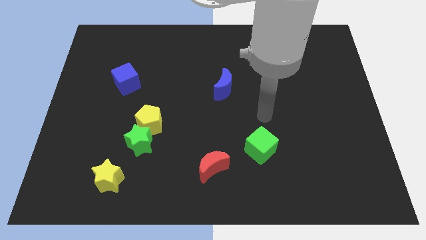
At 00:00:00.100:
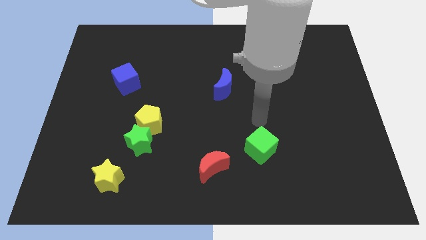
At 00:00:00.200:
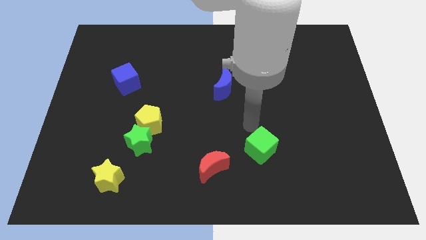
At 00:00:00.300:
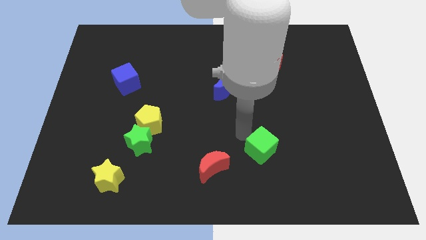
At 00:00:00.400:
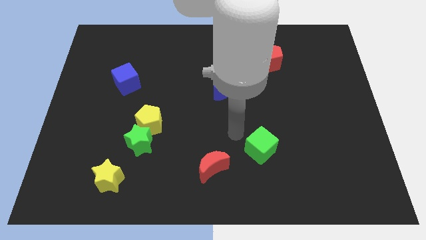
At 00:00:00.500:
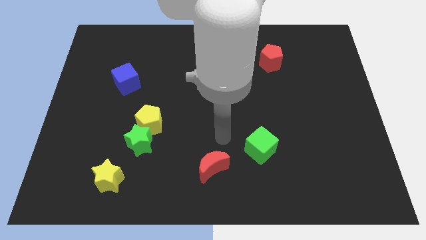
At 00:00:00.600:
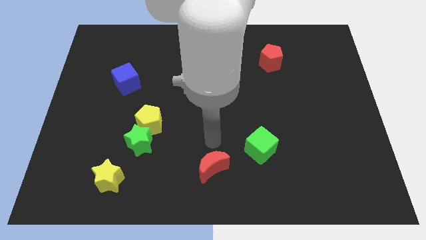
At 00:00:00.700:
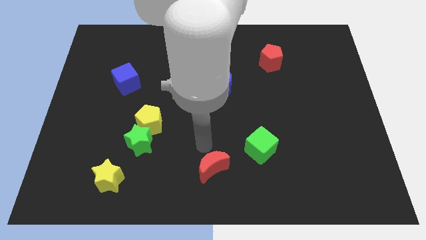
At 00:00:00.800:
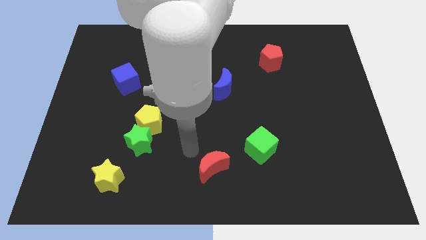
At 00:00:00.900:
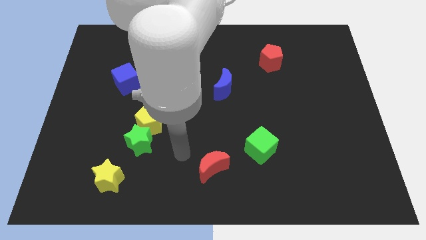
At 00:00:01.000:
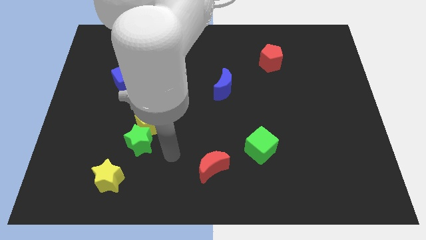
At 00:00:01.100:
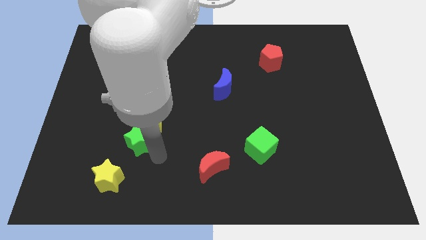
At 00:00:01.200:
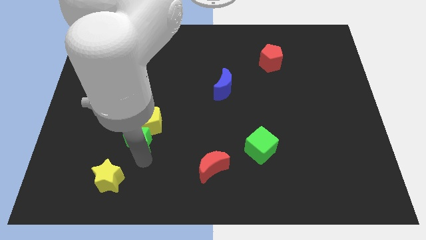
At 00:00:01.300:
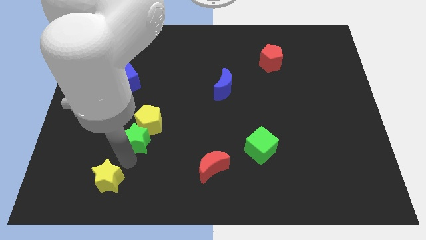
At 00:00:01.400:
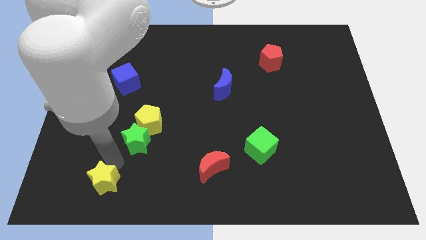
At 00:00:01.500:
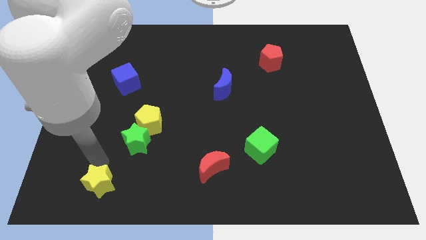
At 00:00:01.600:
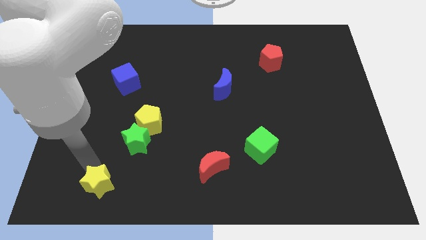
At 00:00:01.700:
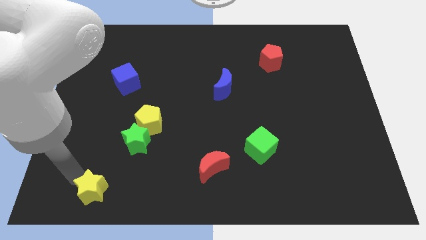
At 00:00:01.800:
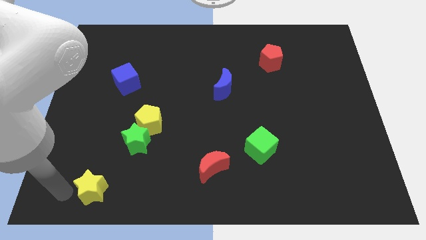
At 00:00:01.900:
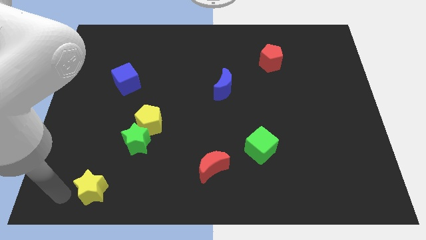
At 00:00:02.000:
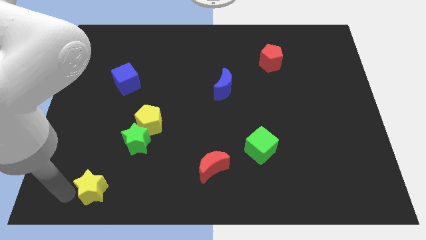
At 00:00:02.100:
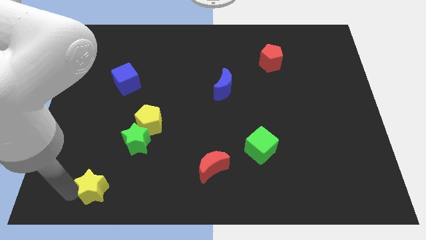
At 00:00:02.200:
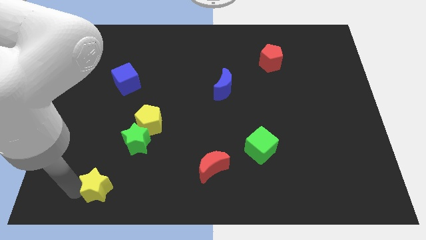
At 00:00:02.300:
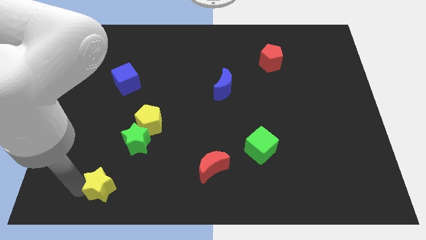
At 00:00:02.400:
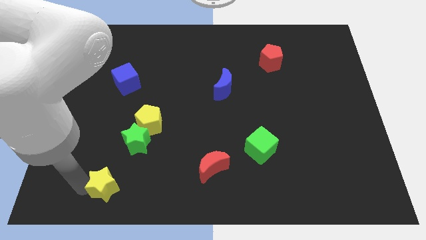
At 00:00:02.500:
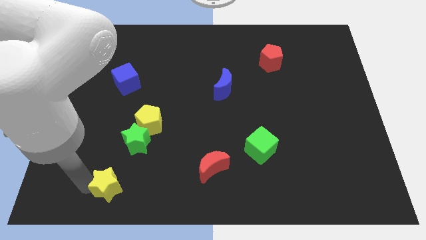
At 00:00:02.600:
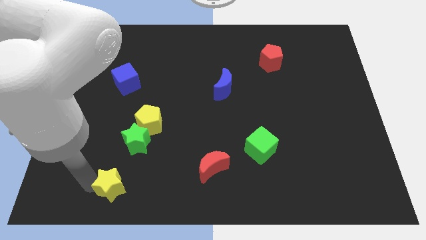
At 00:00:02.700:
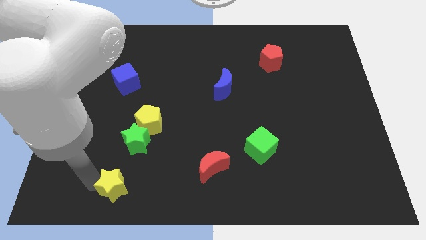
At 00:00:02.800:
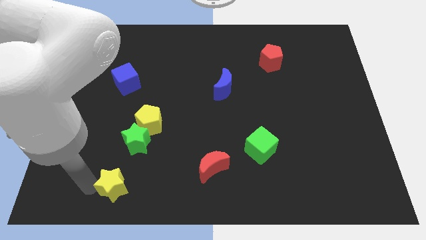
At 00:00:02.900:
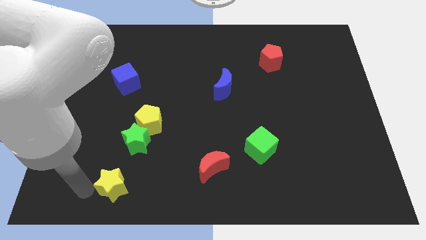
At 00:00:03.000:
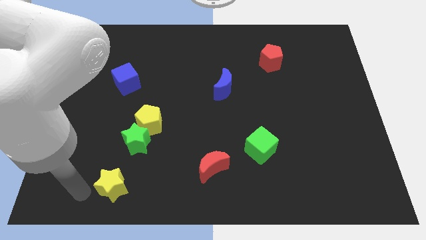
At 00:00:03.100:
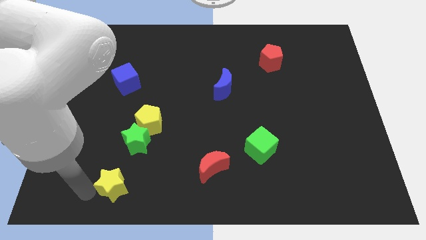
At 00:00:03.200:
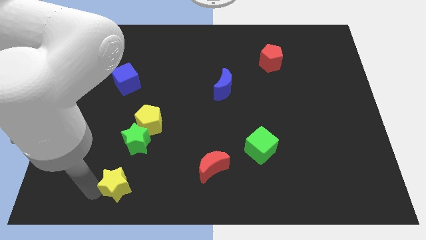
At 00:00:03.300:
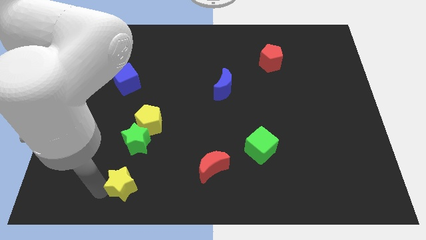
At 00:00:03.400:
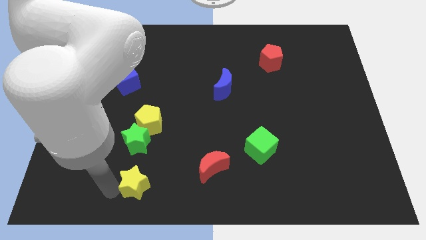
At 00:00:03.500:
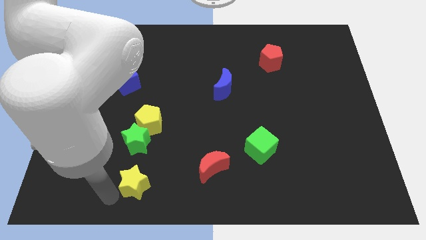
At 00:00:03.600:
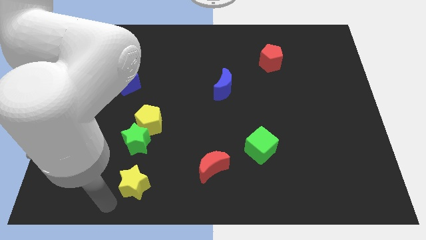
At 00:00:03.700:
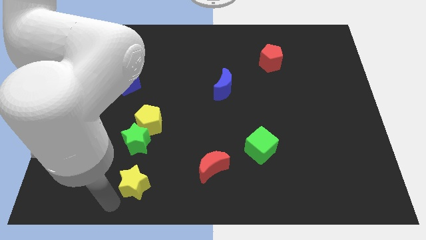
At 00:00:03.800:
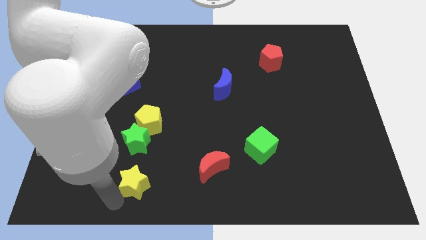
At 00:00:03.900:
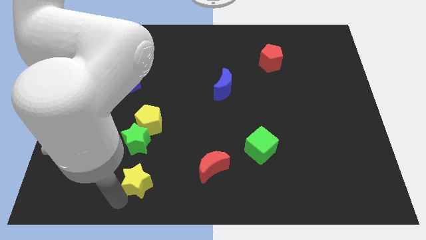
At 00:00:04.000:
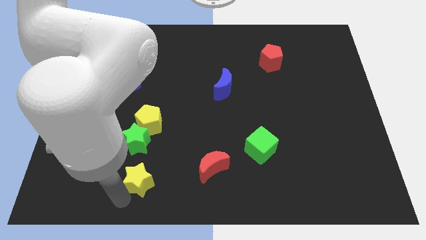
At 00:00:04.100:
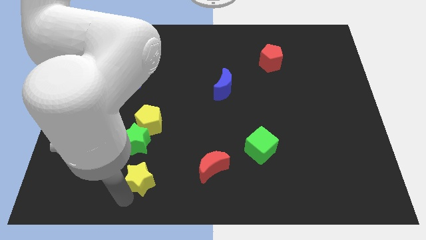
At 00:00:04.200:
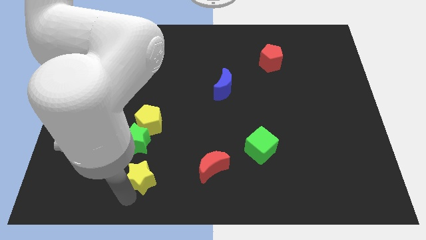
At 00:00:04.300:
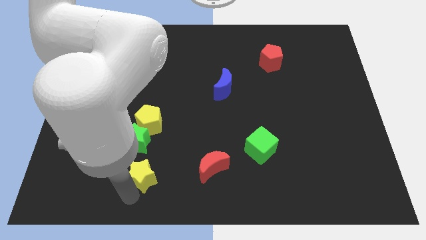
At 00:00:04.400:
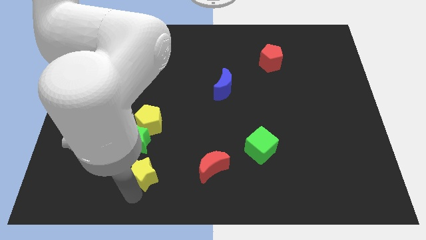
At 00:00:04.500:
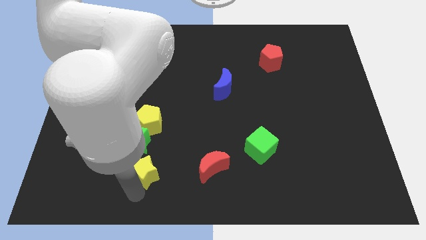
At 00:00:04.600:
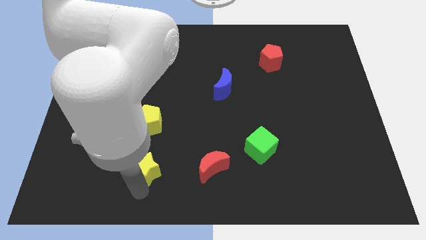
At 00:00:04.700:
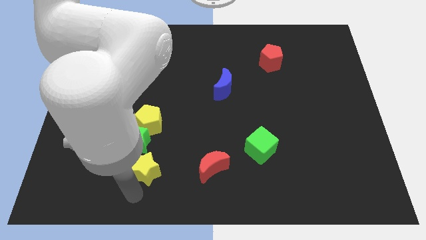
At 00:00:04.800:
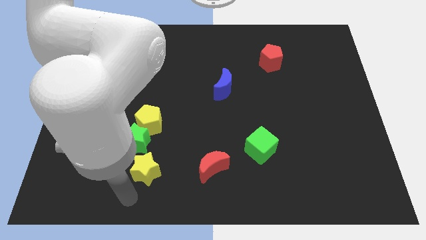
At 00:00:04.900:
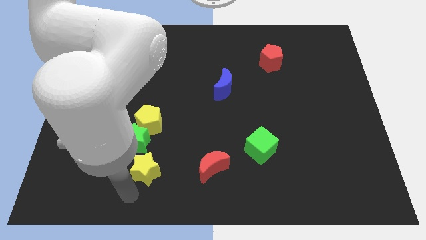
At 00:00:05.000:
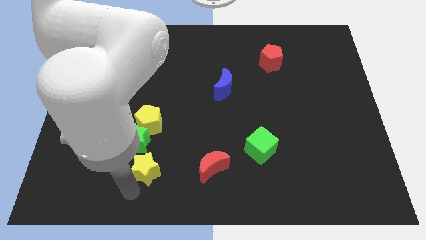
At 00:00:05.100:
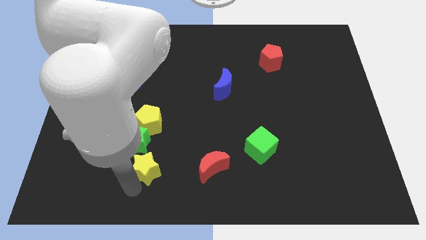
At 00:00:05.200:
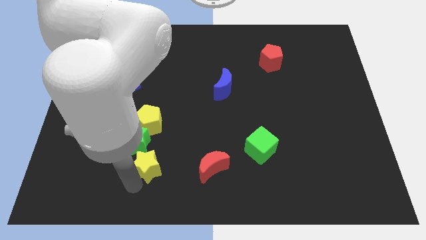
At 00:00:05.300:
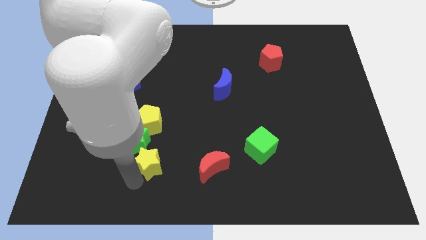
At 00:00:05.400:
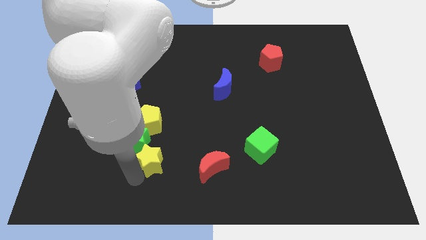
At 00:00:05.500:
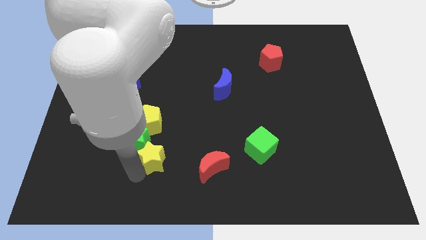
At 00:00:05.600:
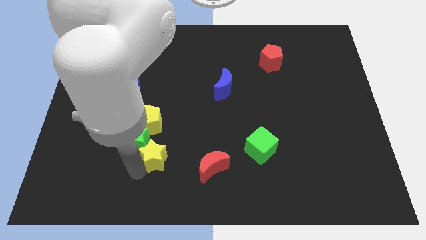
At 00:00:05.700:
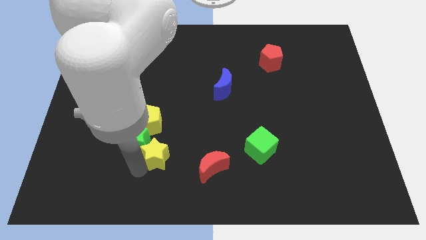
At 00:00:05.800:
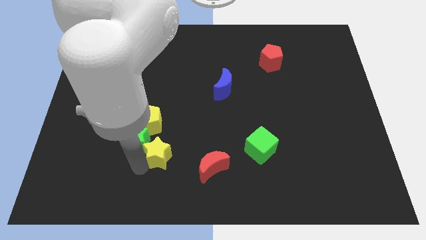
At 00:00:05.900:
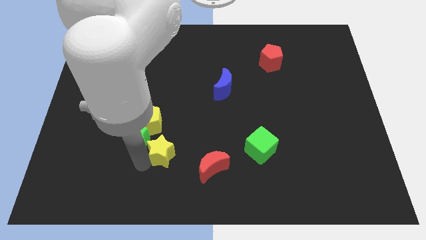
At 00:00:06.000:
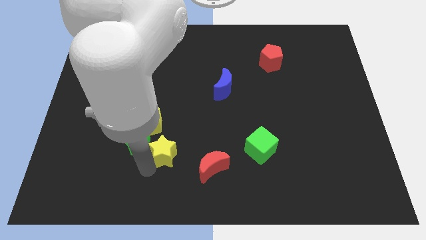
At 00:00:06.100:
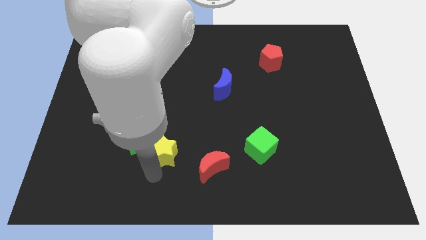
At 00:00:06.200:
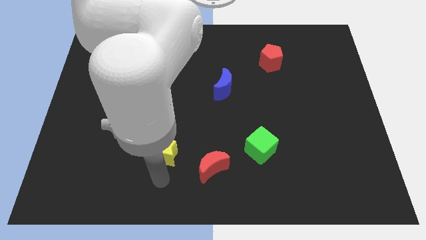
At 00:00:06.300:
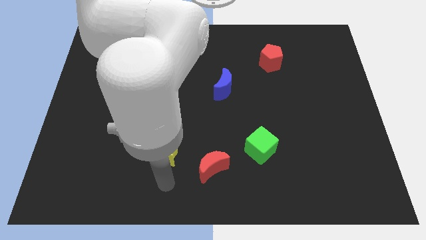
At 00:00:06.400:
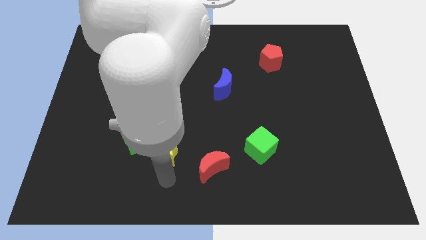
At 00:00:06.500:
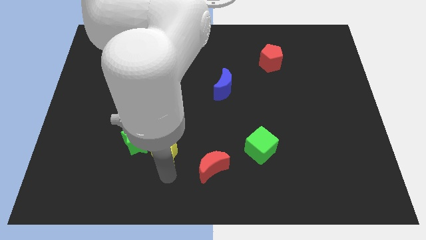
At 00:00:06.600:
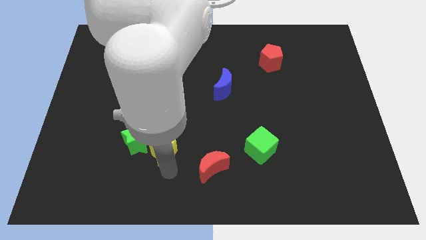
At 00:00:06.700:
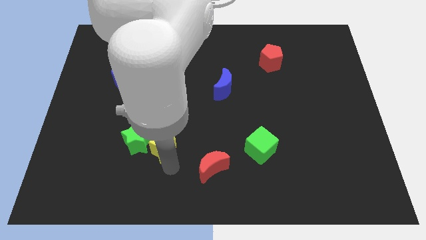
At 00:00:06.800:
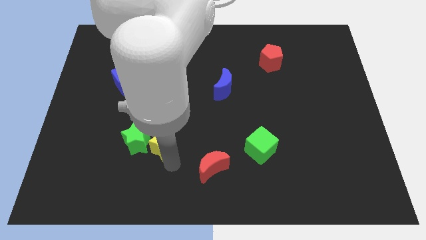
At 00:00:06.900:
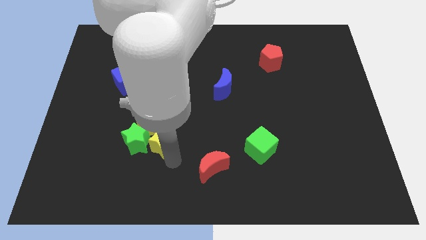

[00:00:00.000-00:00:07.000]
put the yellow star diagonally up and to the right of the green star

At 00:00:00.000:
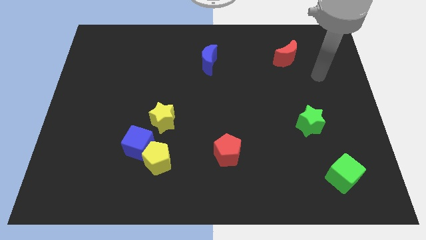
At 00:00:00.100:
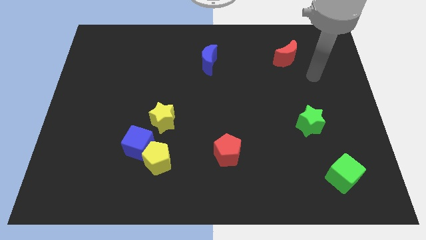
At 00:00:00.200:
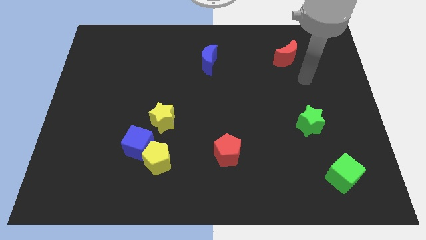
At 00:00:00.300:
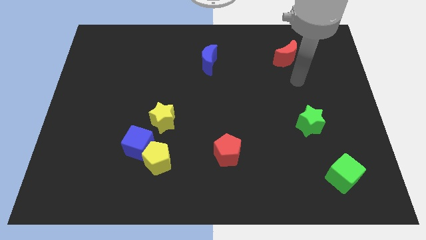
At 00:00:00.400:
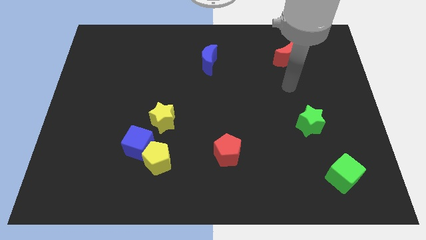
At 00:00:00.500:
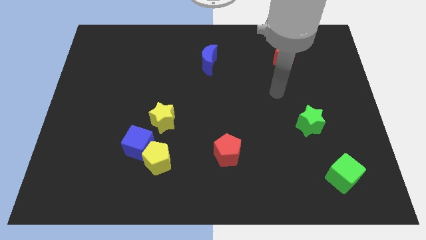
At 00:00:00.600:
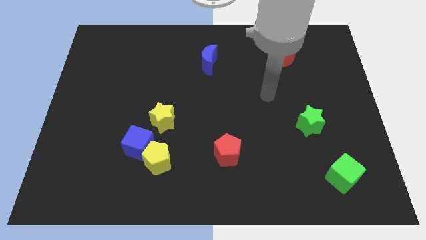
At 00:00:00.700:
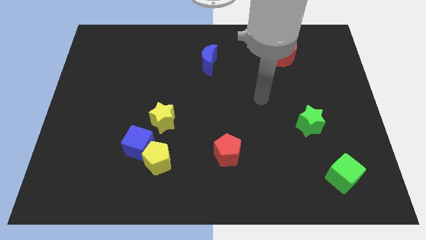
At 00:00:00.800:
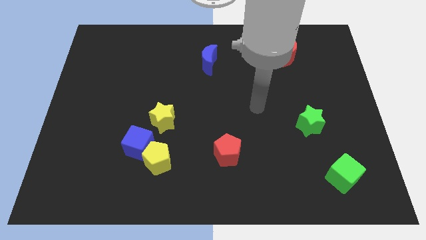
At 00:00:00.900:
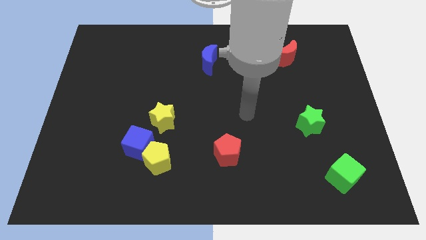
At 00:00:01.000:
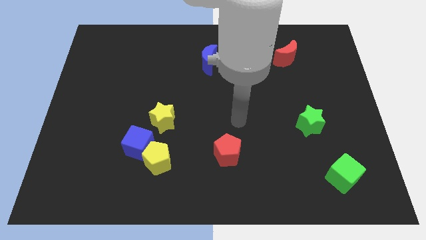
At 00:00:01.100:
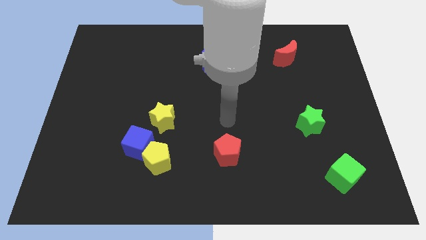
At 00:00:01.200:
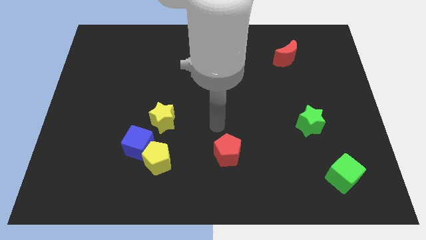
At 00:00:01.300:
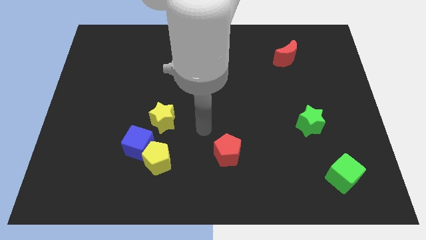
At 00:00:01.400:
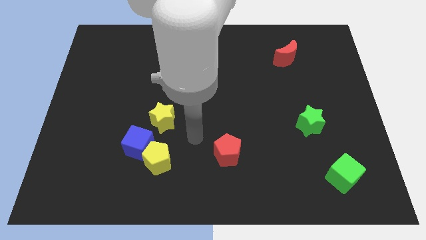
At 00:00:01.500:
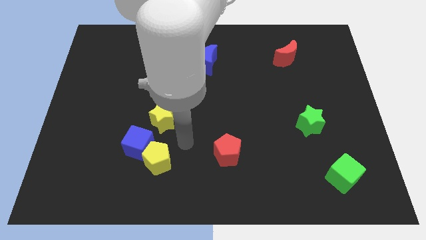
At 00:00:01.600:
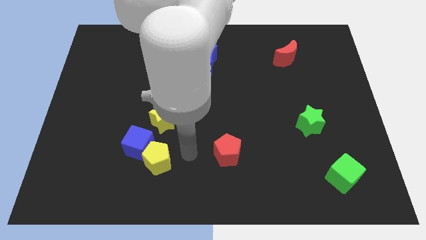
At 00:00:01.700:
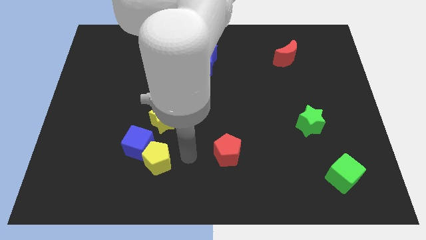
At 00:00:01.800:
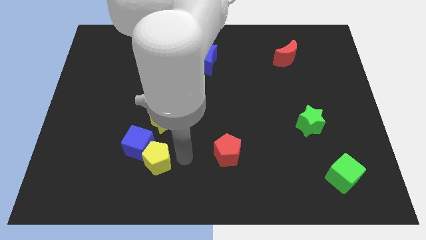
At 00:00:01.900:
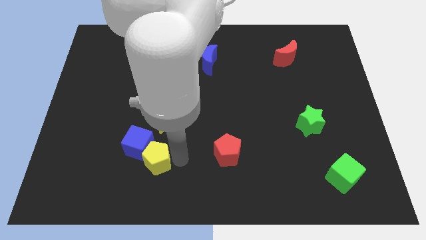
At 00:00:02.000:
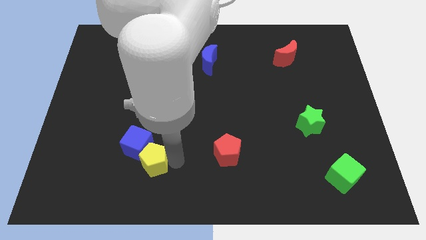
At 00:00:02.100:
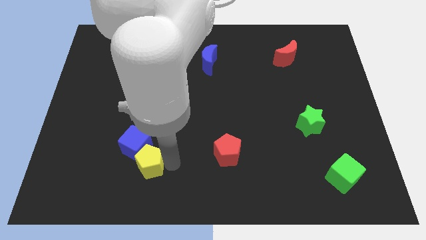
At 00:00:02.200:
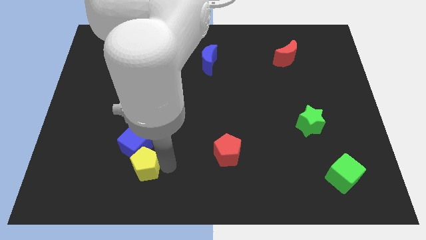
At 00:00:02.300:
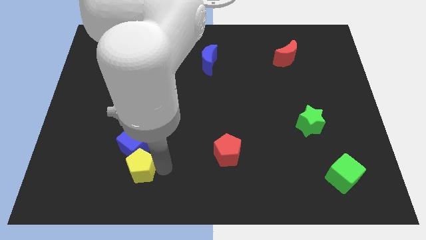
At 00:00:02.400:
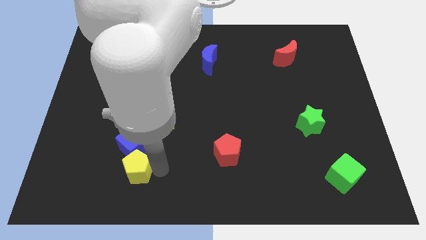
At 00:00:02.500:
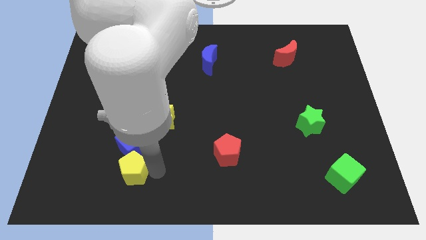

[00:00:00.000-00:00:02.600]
put the yellow pentagon to the bottom left side of the blue cube
